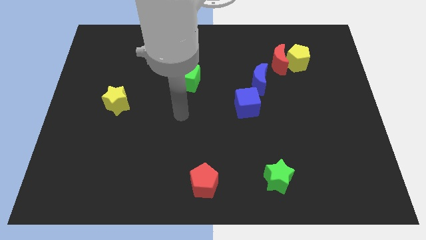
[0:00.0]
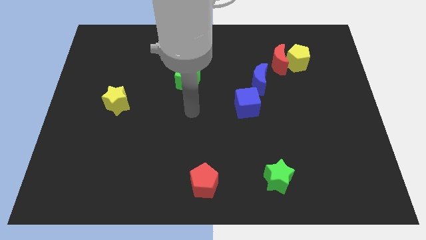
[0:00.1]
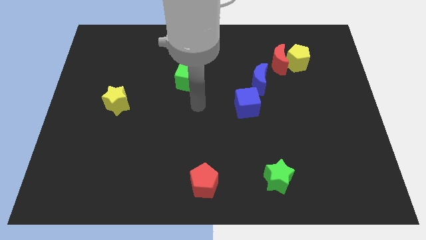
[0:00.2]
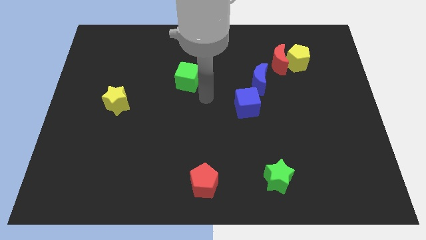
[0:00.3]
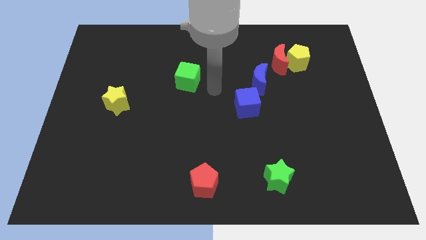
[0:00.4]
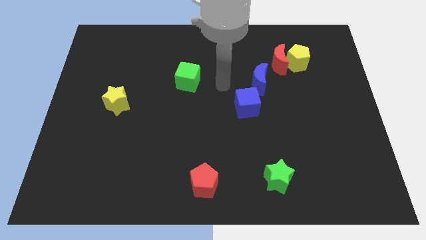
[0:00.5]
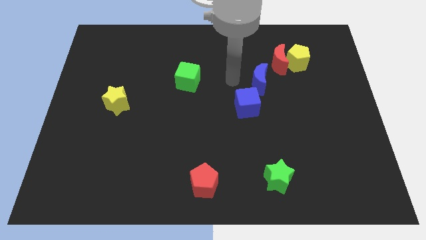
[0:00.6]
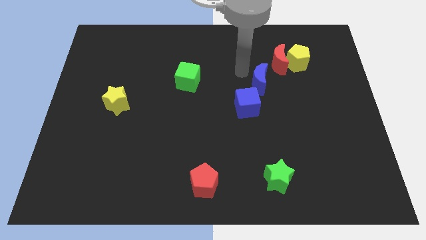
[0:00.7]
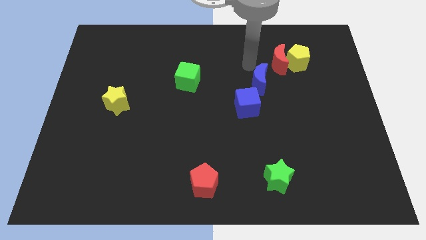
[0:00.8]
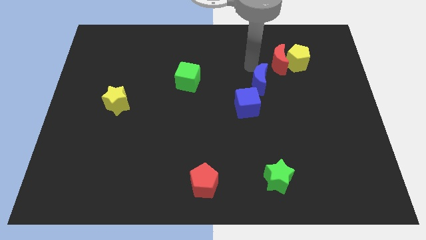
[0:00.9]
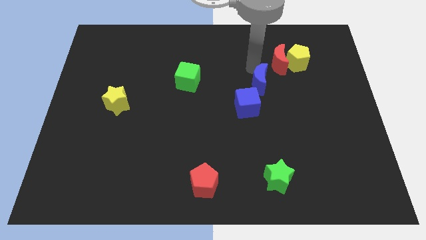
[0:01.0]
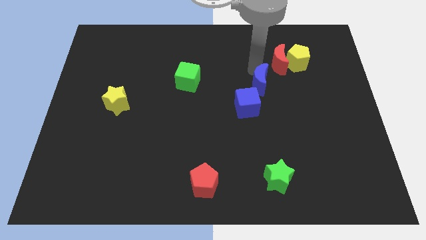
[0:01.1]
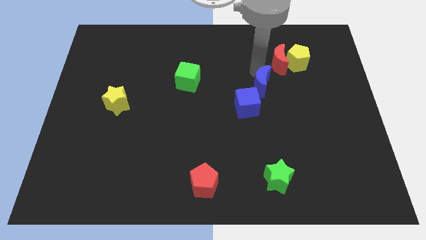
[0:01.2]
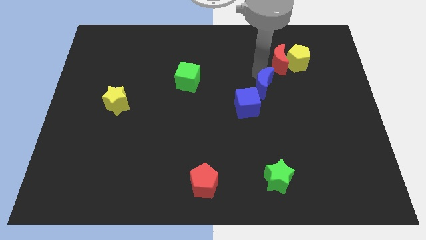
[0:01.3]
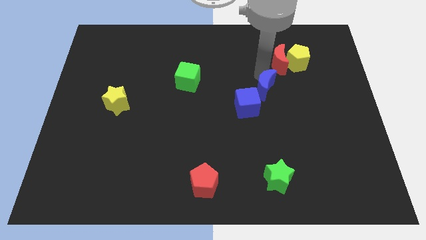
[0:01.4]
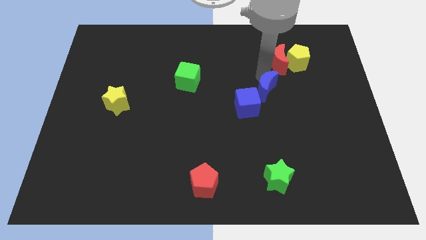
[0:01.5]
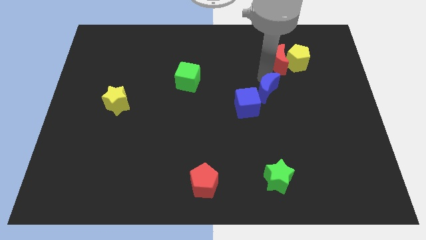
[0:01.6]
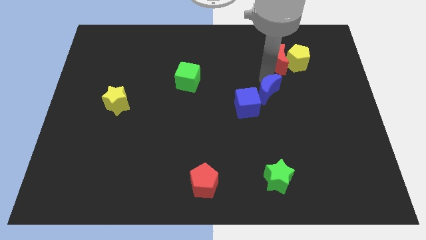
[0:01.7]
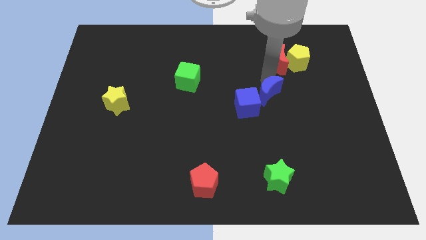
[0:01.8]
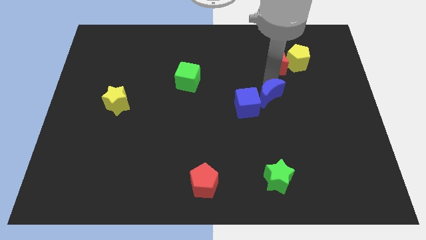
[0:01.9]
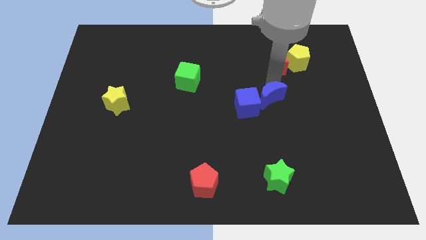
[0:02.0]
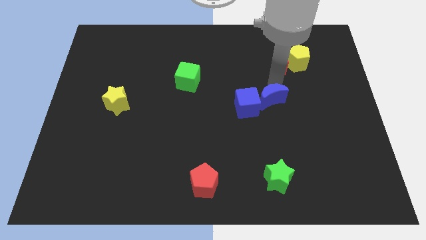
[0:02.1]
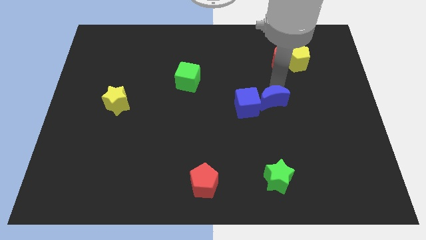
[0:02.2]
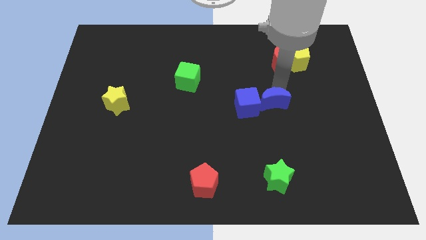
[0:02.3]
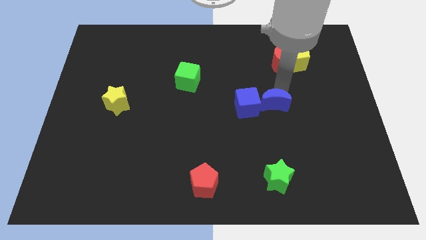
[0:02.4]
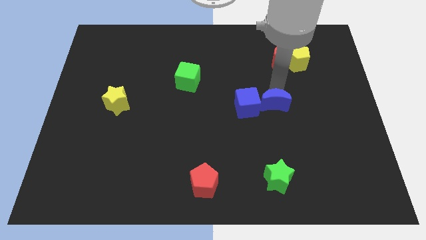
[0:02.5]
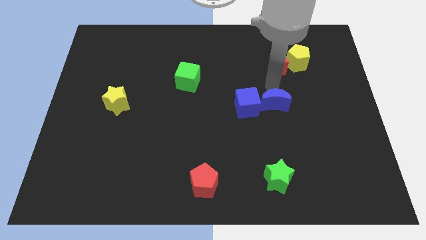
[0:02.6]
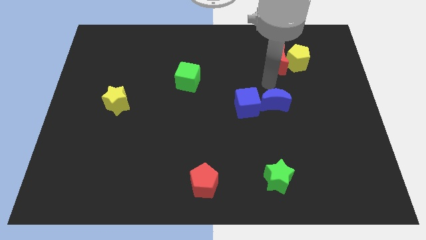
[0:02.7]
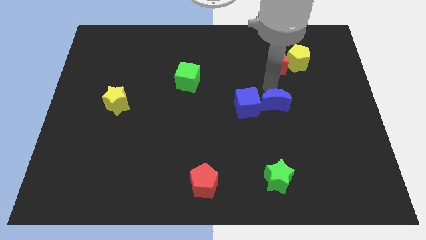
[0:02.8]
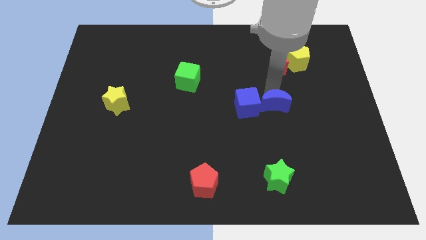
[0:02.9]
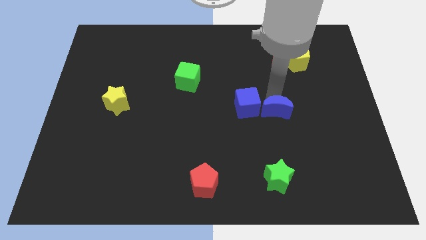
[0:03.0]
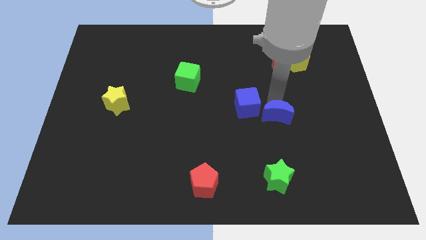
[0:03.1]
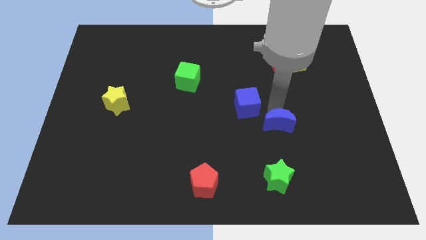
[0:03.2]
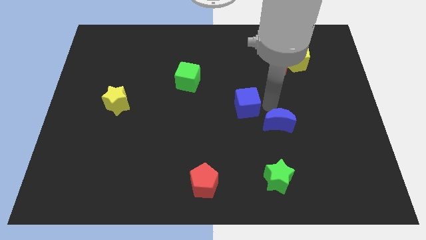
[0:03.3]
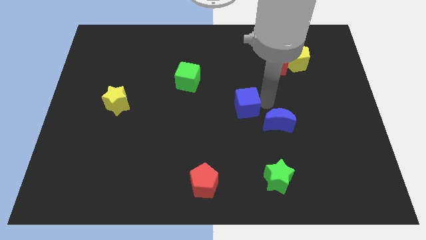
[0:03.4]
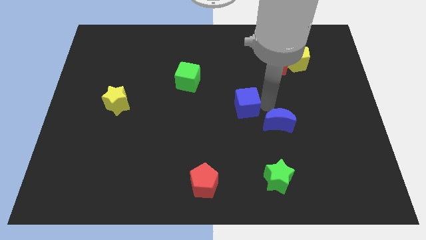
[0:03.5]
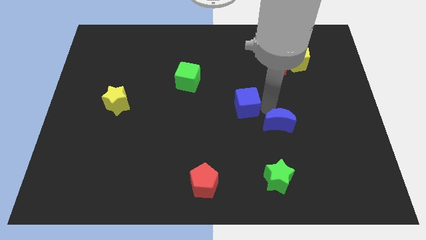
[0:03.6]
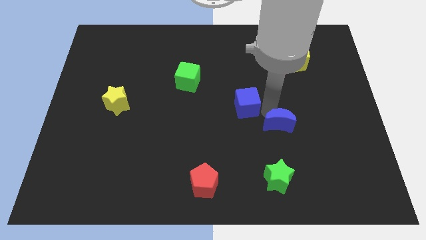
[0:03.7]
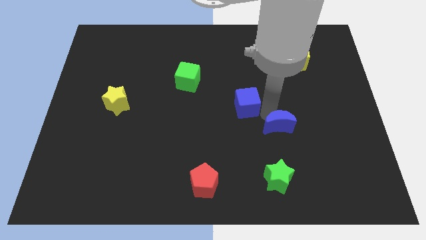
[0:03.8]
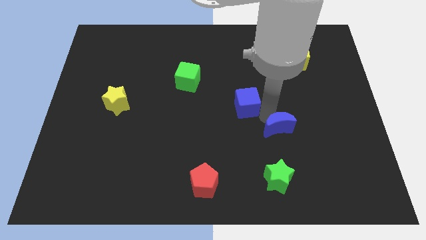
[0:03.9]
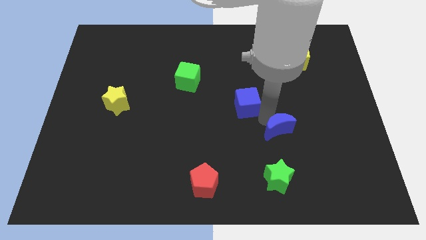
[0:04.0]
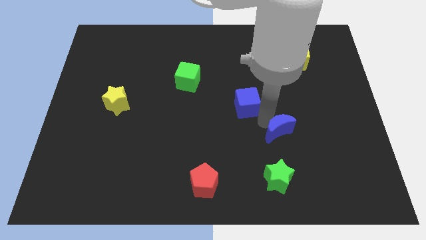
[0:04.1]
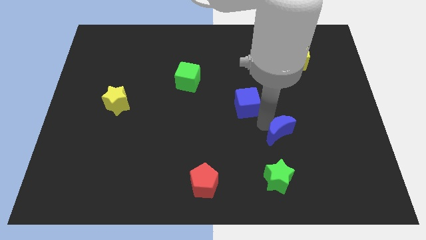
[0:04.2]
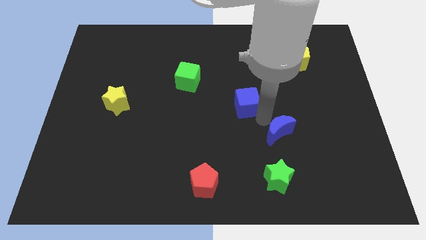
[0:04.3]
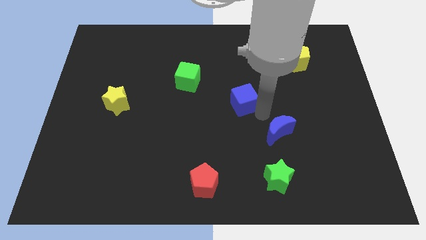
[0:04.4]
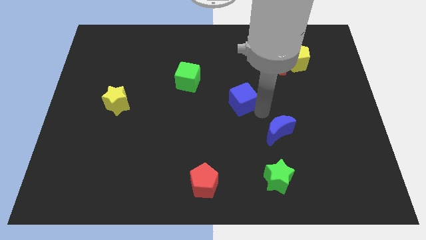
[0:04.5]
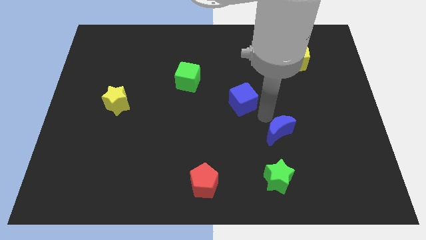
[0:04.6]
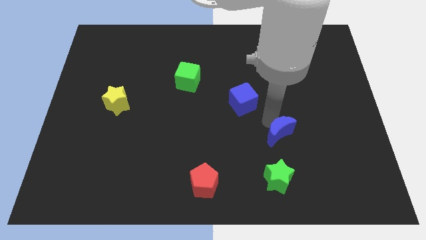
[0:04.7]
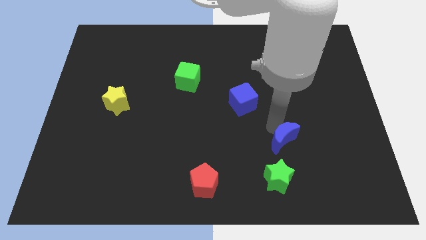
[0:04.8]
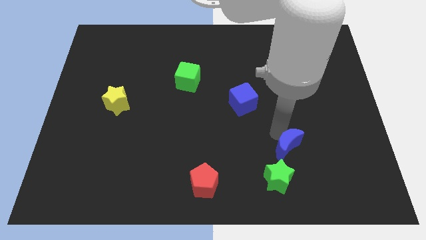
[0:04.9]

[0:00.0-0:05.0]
put the blue moon to the top right of the green star

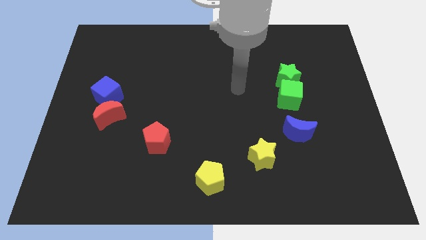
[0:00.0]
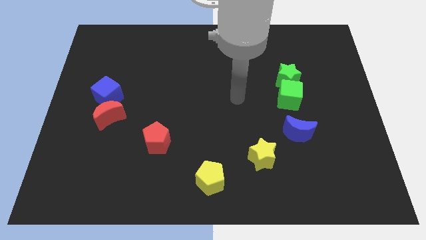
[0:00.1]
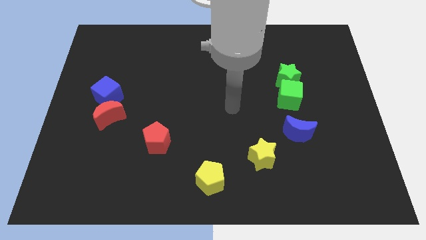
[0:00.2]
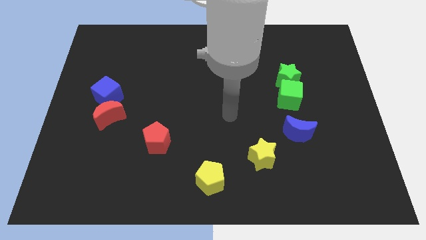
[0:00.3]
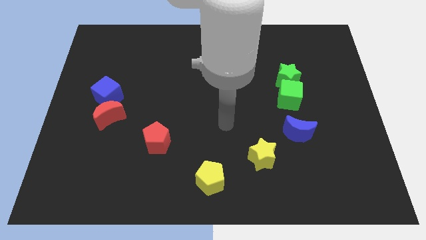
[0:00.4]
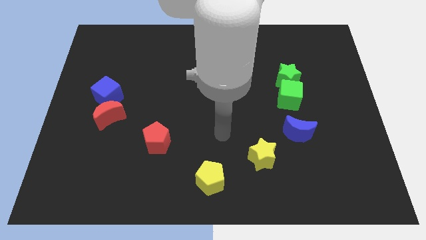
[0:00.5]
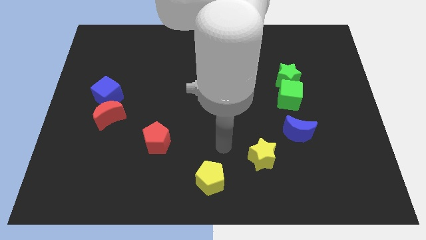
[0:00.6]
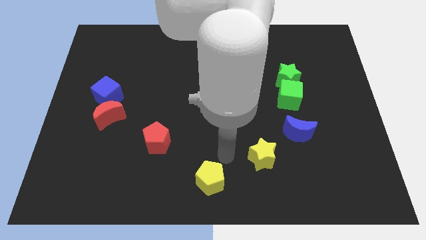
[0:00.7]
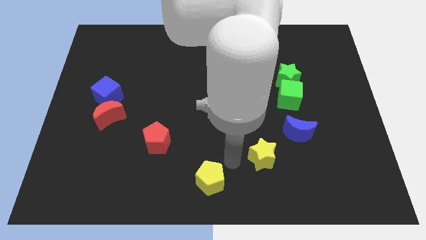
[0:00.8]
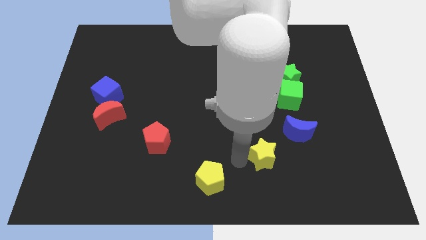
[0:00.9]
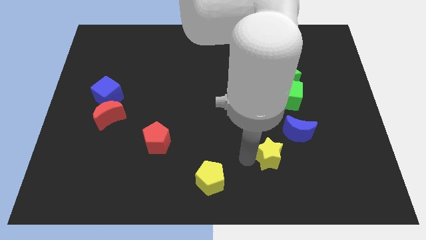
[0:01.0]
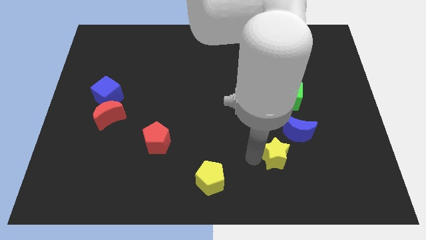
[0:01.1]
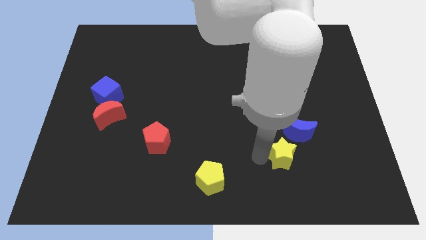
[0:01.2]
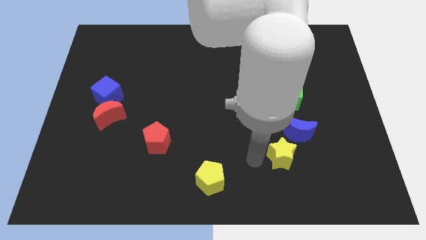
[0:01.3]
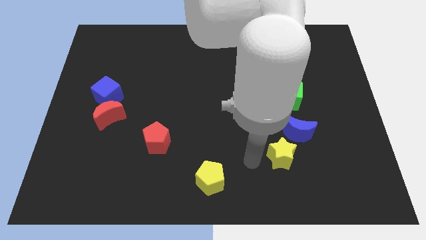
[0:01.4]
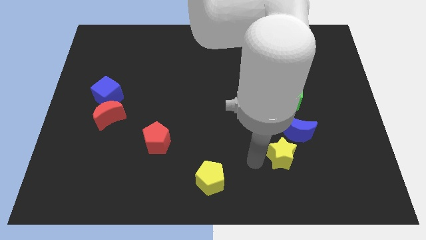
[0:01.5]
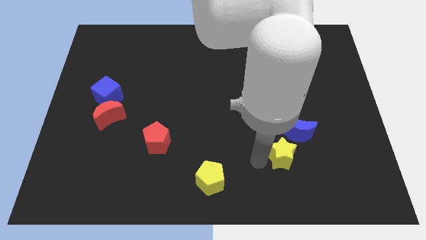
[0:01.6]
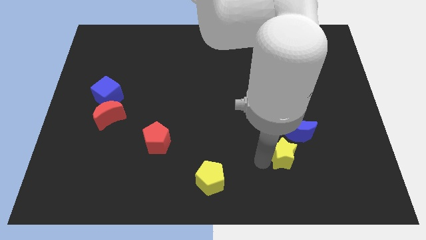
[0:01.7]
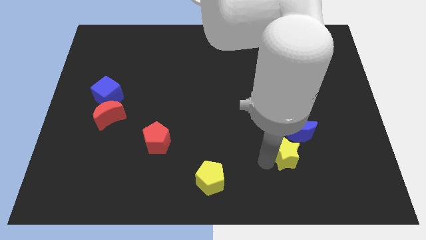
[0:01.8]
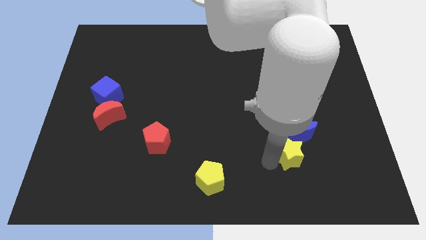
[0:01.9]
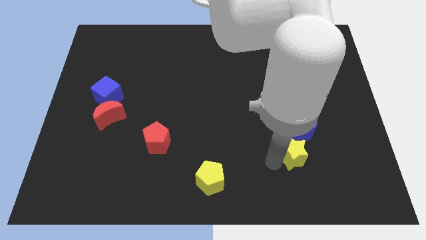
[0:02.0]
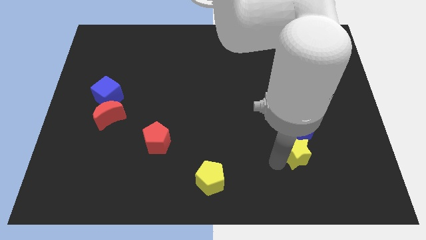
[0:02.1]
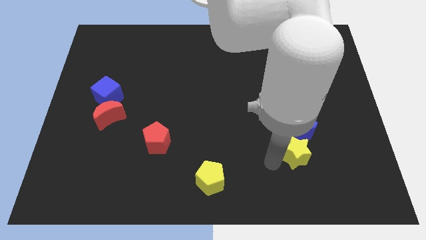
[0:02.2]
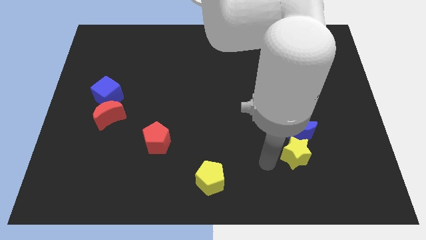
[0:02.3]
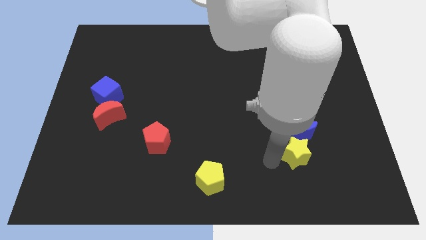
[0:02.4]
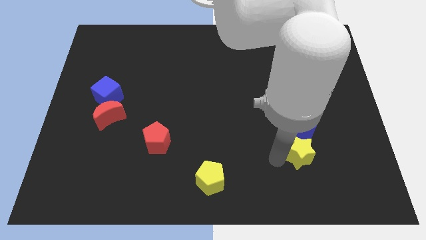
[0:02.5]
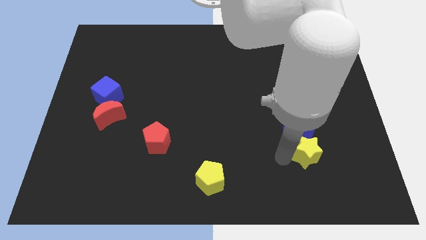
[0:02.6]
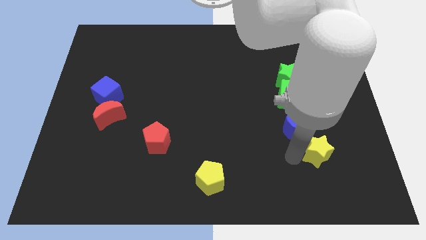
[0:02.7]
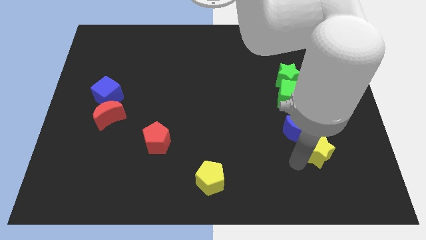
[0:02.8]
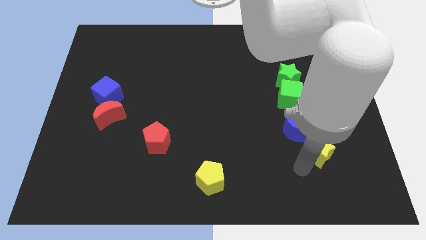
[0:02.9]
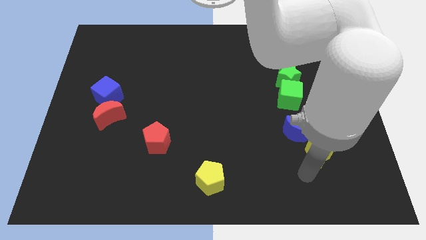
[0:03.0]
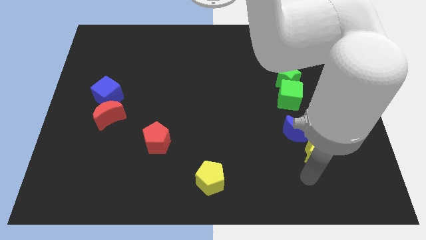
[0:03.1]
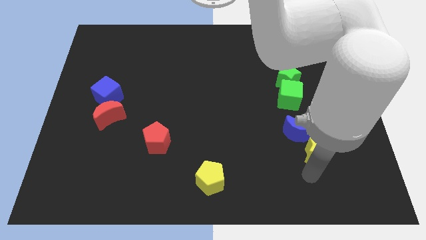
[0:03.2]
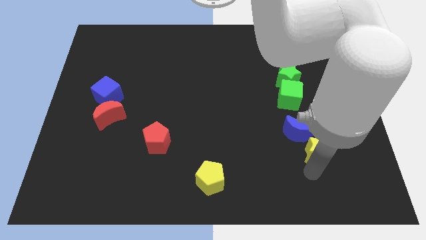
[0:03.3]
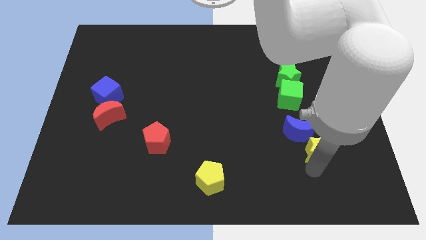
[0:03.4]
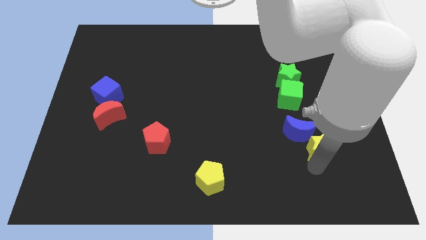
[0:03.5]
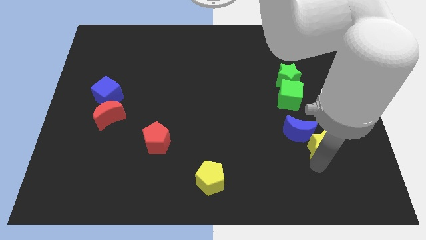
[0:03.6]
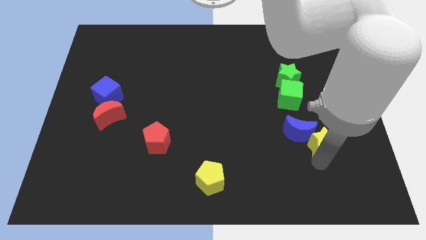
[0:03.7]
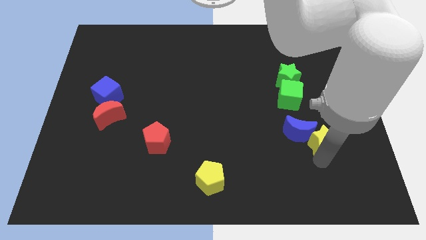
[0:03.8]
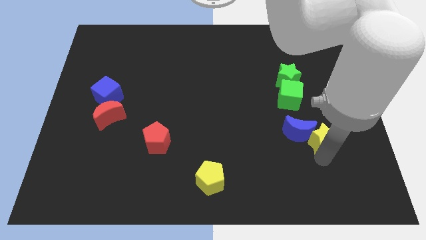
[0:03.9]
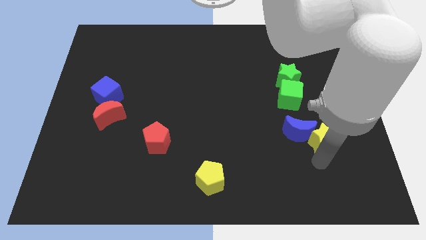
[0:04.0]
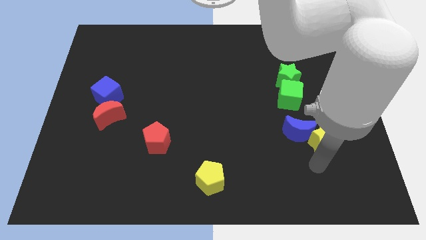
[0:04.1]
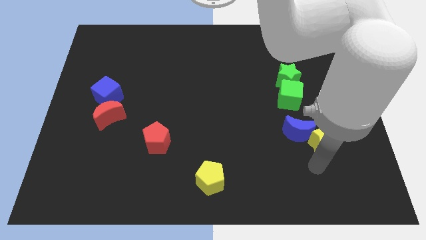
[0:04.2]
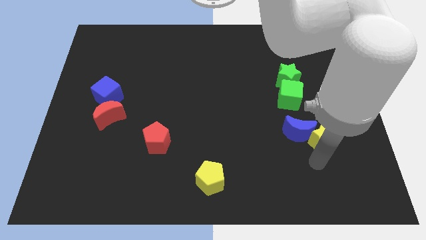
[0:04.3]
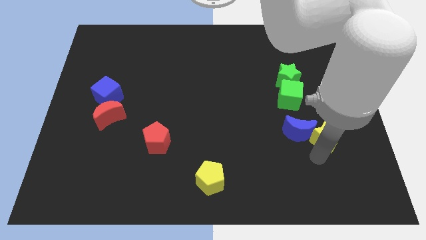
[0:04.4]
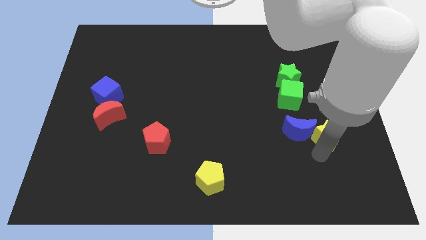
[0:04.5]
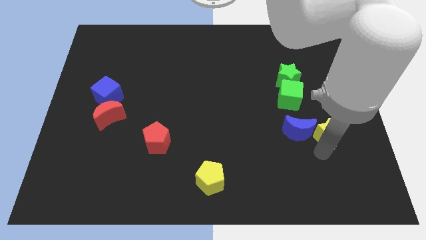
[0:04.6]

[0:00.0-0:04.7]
slide the yellow star to the top right side of the blue moon
